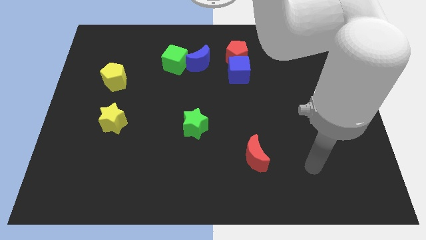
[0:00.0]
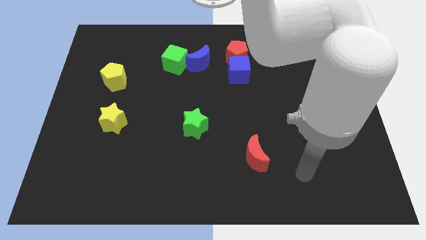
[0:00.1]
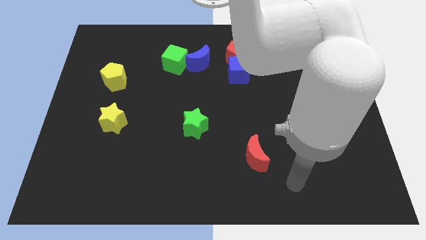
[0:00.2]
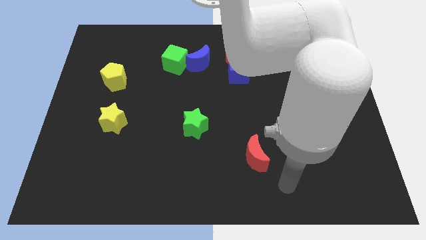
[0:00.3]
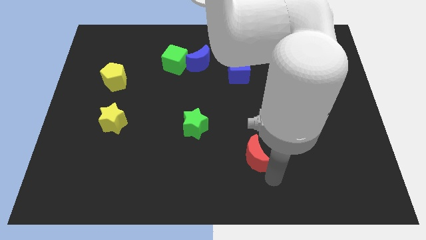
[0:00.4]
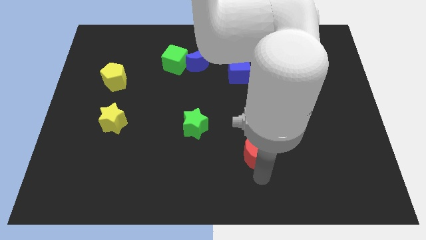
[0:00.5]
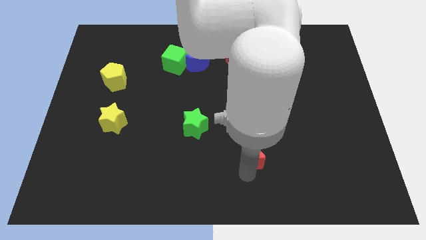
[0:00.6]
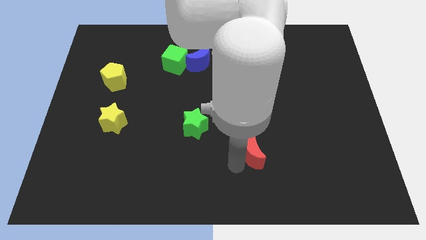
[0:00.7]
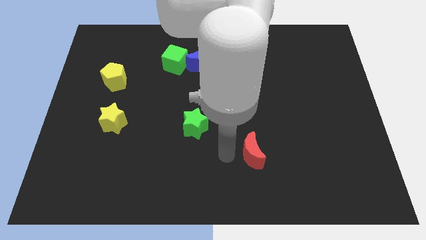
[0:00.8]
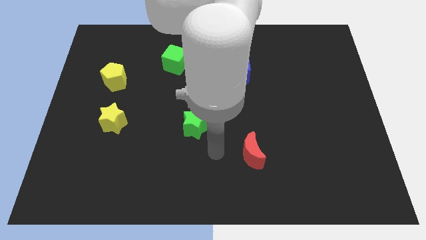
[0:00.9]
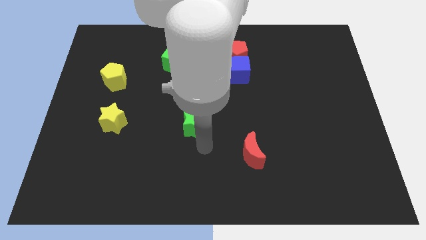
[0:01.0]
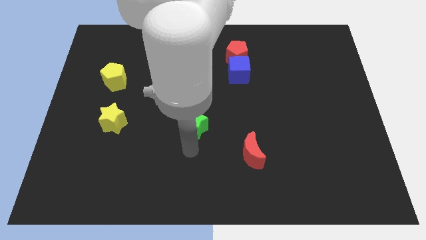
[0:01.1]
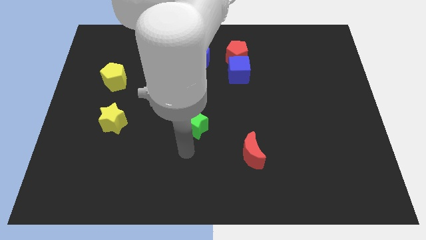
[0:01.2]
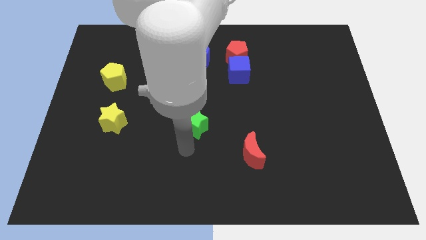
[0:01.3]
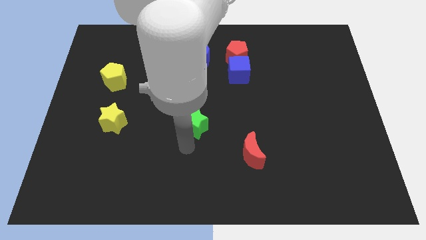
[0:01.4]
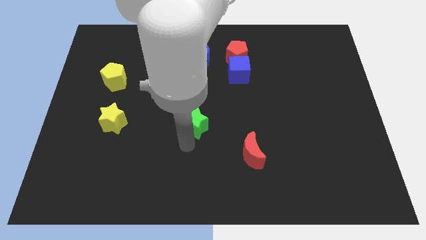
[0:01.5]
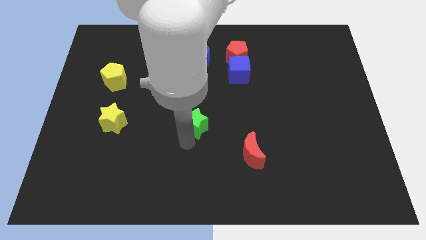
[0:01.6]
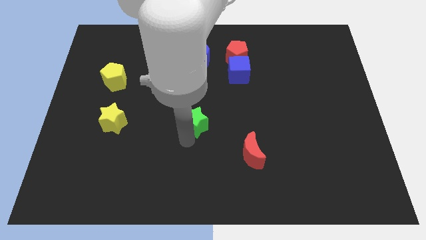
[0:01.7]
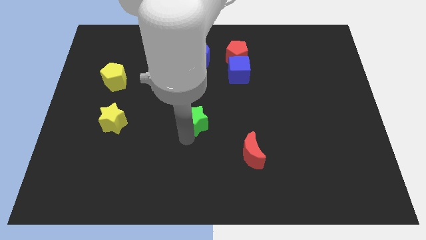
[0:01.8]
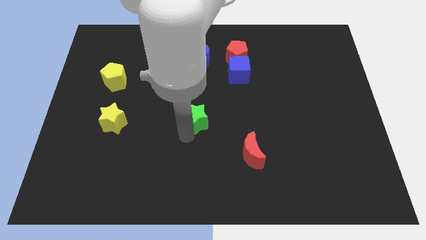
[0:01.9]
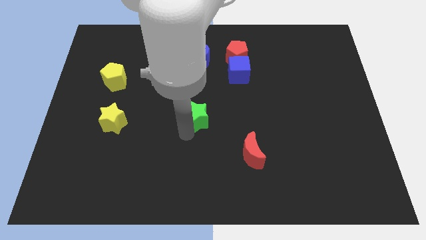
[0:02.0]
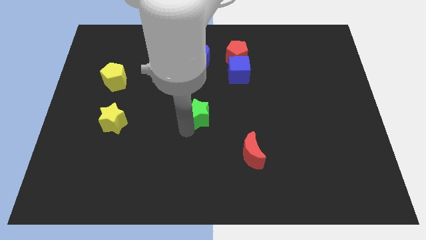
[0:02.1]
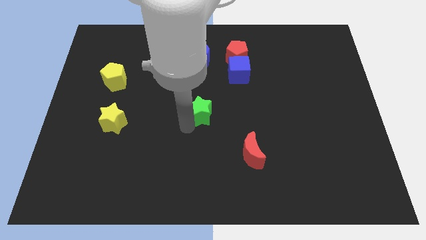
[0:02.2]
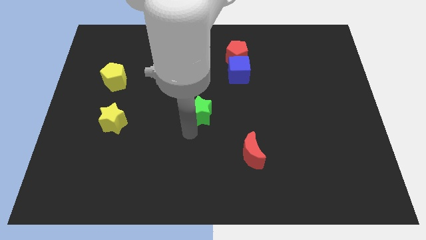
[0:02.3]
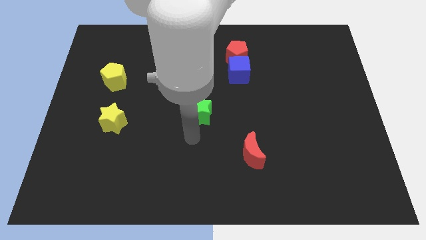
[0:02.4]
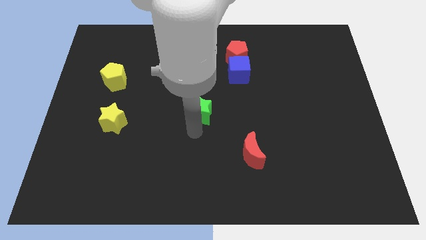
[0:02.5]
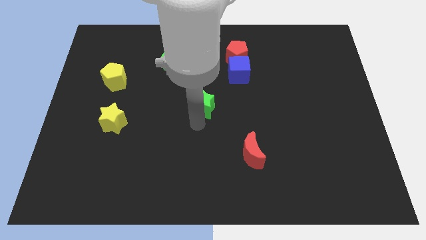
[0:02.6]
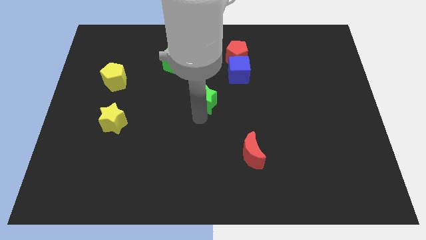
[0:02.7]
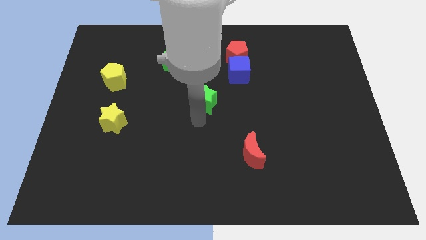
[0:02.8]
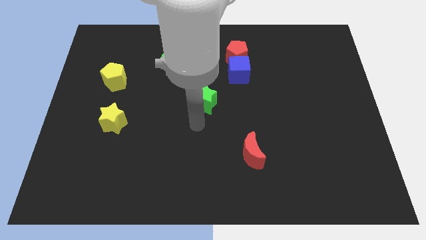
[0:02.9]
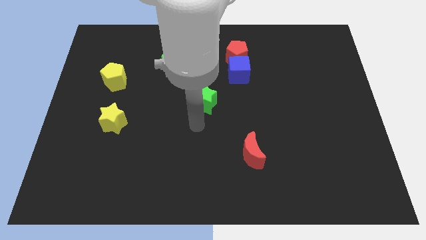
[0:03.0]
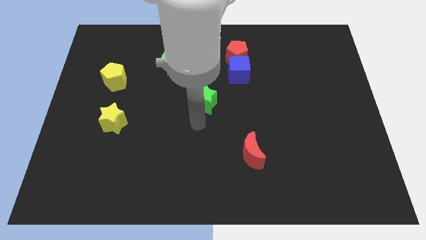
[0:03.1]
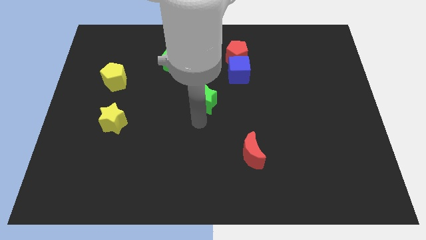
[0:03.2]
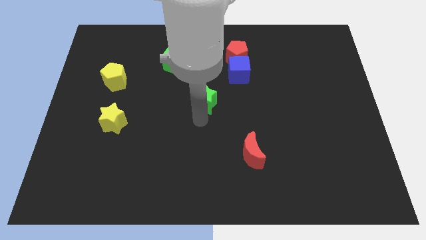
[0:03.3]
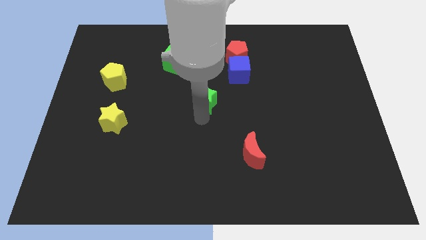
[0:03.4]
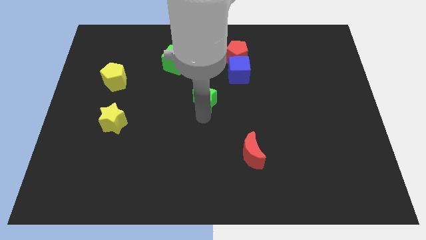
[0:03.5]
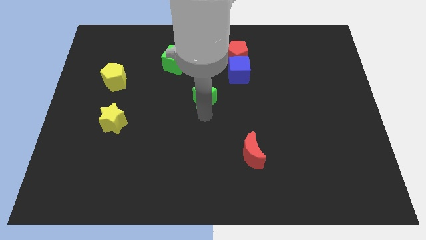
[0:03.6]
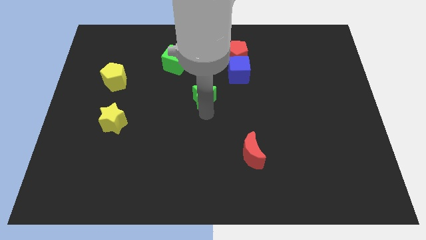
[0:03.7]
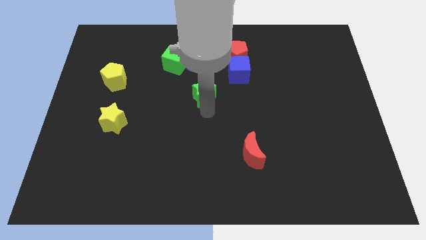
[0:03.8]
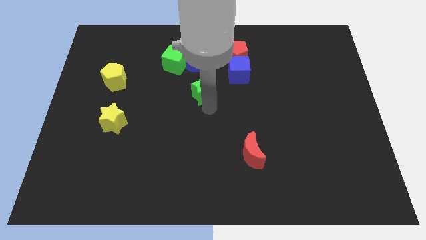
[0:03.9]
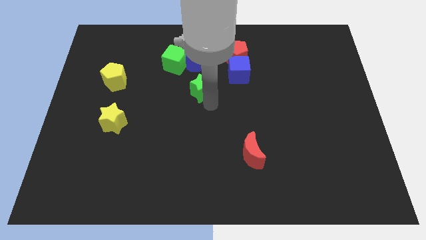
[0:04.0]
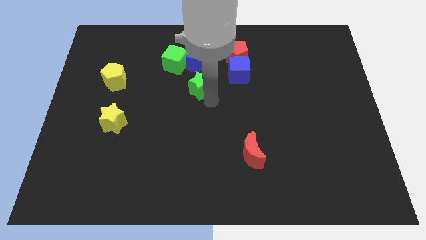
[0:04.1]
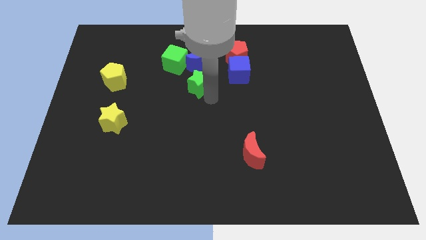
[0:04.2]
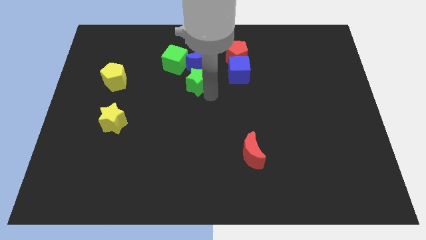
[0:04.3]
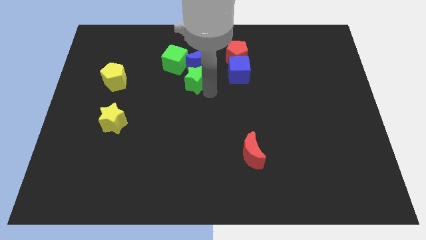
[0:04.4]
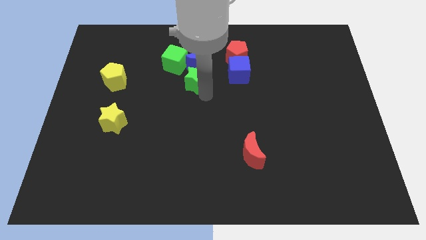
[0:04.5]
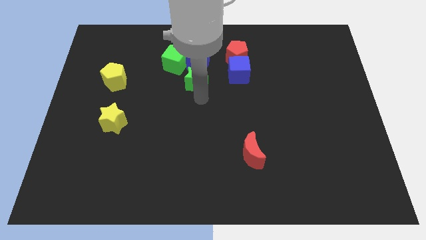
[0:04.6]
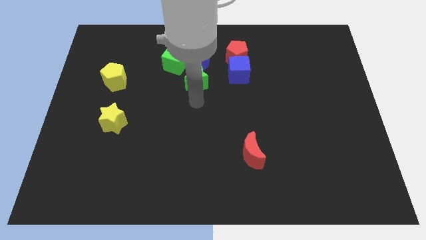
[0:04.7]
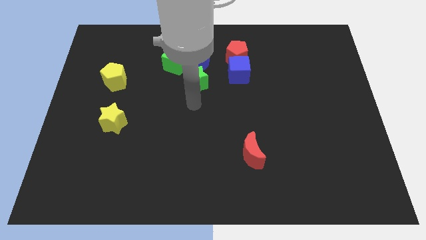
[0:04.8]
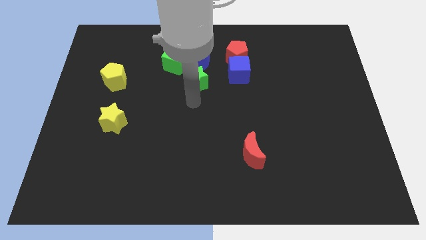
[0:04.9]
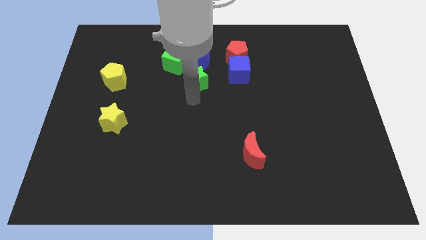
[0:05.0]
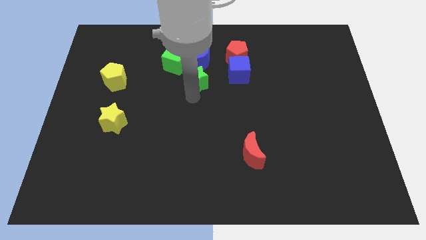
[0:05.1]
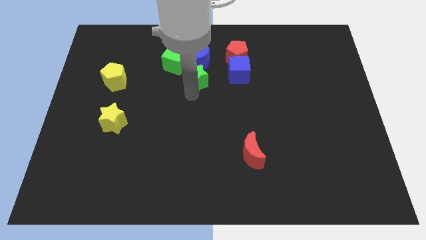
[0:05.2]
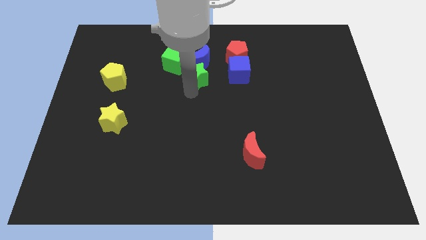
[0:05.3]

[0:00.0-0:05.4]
push the green star towards the blue moon

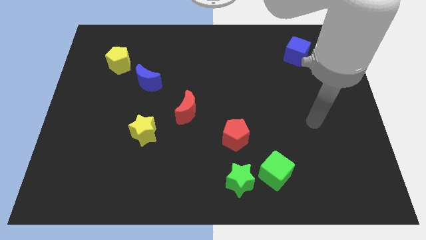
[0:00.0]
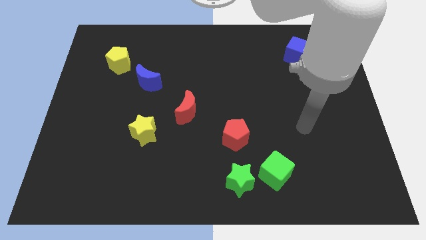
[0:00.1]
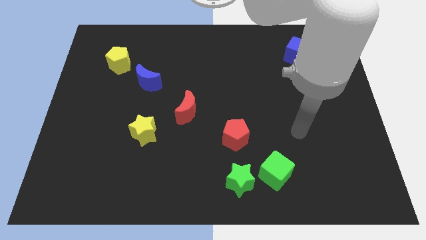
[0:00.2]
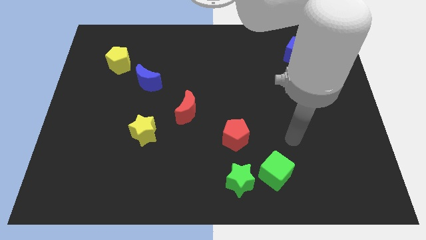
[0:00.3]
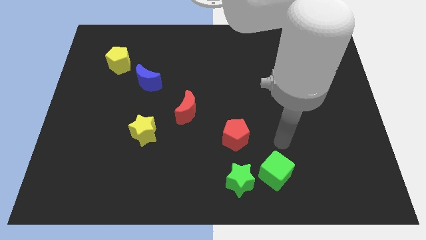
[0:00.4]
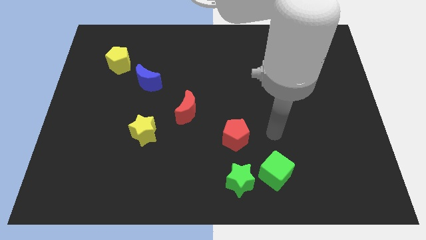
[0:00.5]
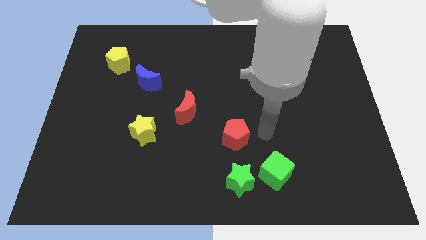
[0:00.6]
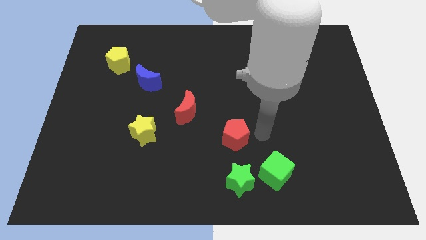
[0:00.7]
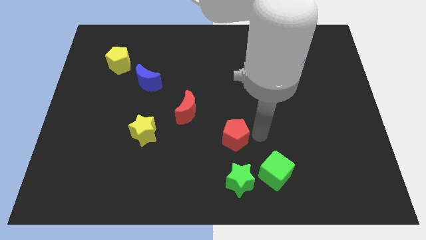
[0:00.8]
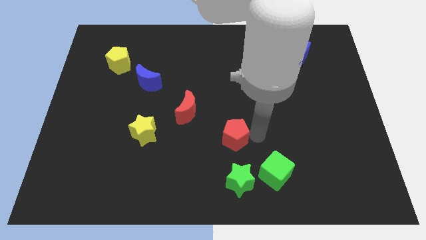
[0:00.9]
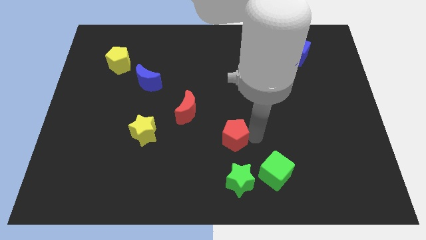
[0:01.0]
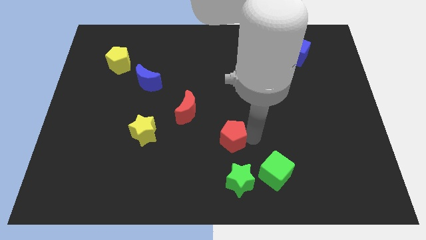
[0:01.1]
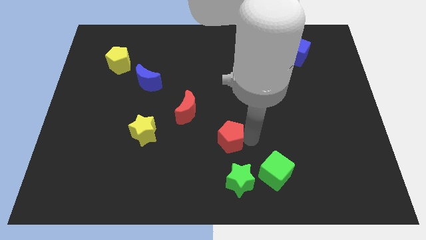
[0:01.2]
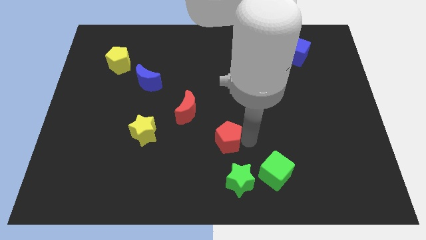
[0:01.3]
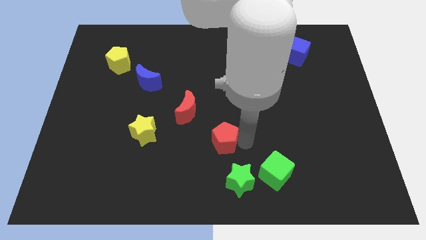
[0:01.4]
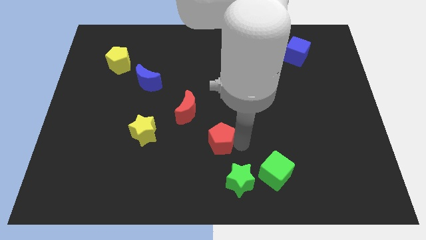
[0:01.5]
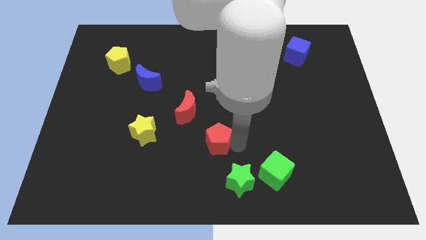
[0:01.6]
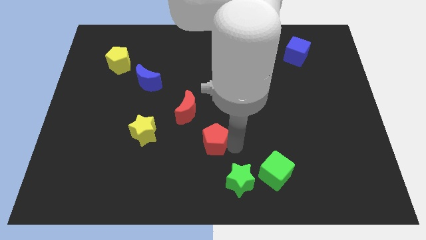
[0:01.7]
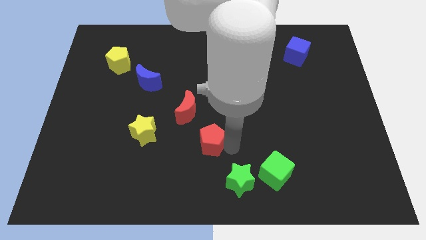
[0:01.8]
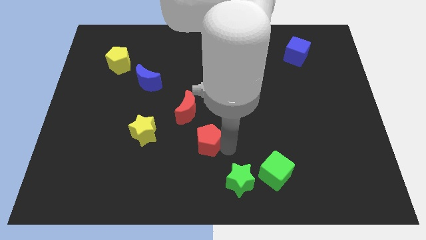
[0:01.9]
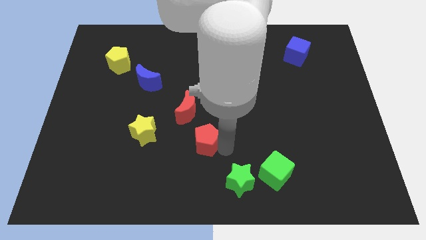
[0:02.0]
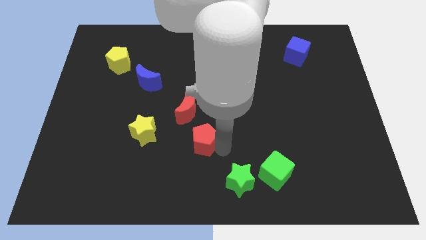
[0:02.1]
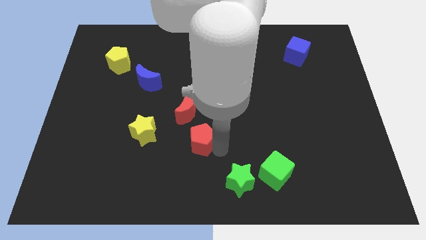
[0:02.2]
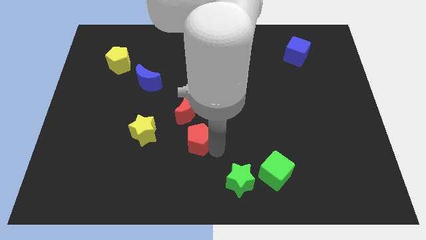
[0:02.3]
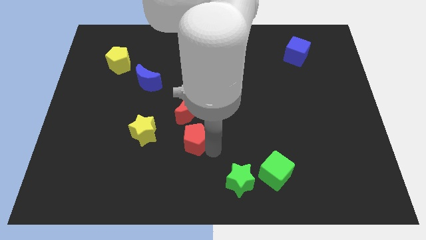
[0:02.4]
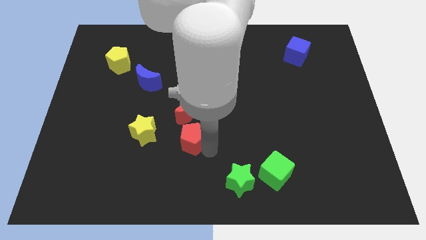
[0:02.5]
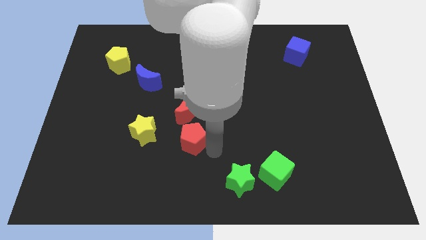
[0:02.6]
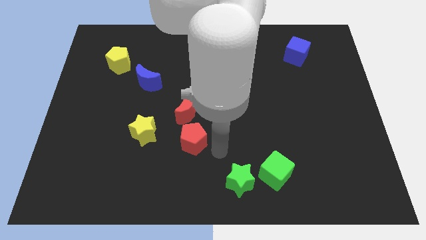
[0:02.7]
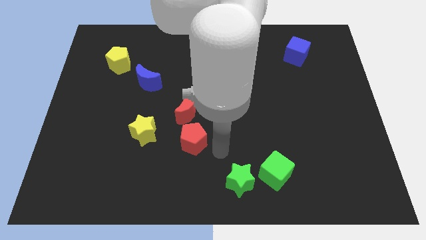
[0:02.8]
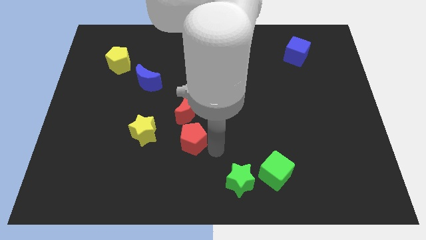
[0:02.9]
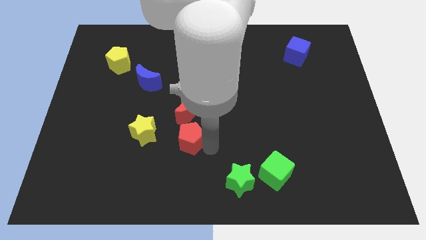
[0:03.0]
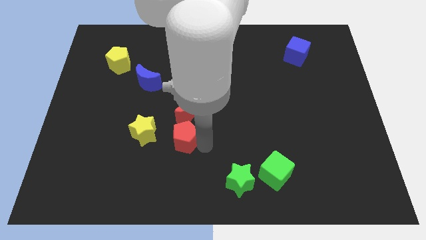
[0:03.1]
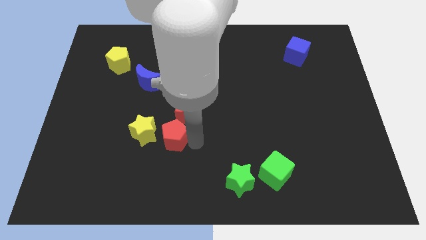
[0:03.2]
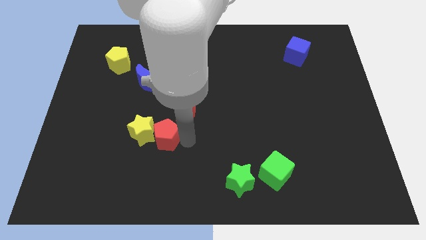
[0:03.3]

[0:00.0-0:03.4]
push the red pentagon towards the yellow star
